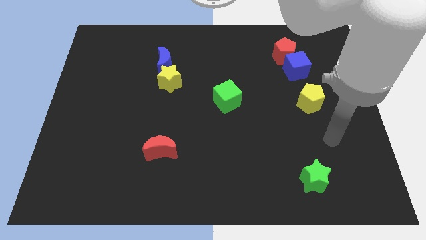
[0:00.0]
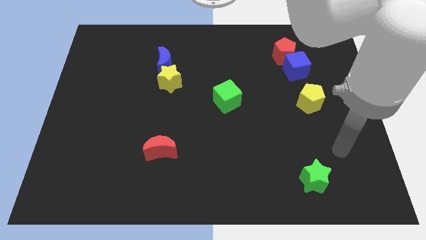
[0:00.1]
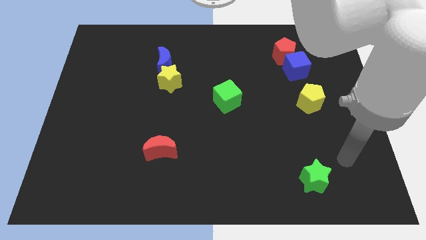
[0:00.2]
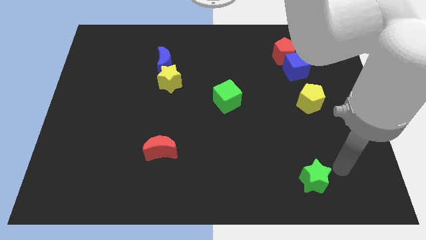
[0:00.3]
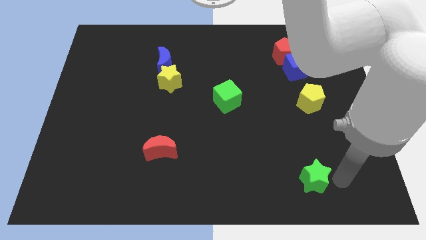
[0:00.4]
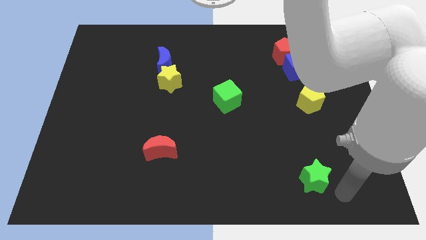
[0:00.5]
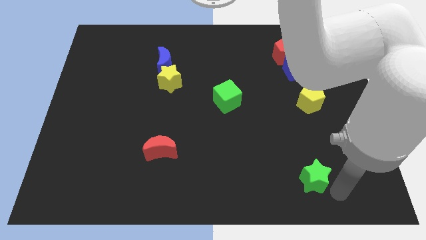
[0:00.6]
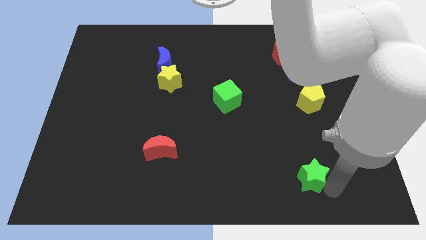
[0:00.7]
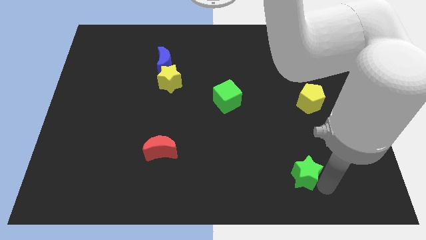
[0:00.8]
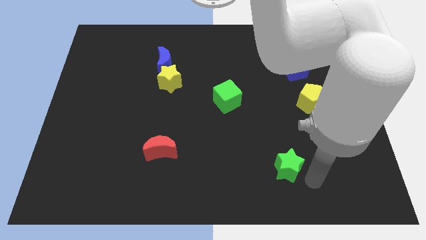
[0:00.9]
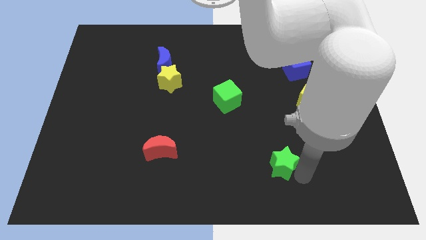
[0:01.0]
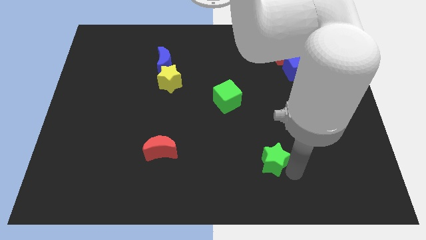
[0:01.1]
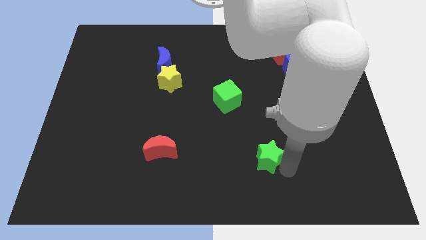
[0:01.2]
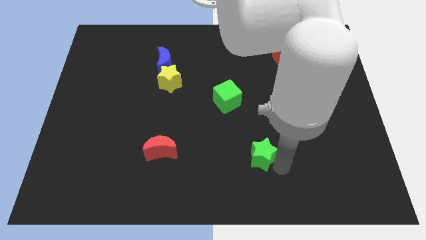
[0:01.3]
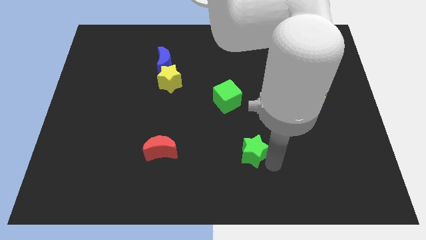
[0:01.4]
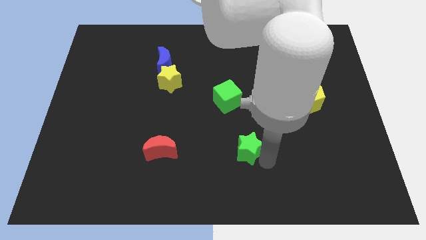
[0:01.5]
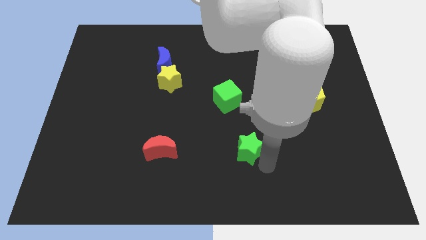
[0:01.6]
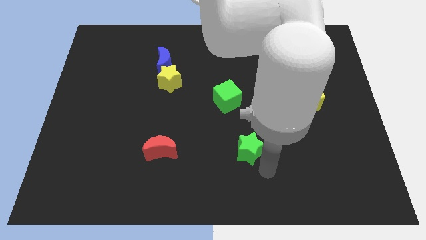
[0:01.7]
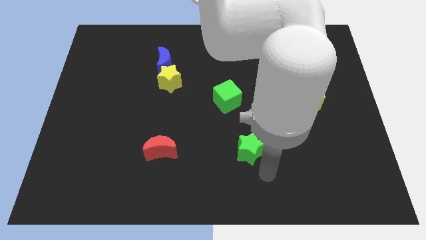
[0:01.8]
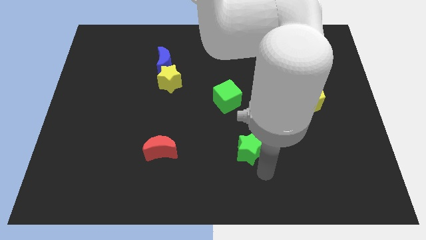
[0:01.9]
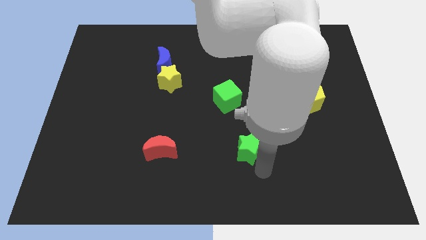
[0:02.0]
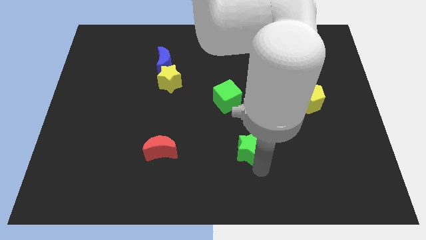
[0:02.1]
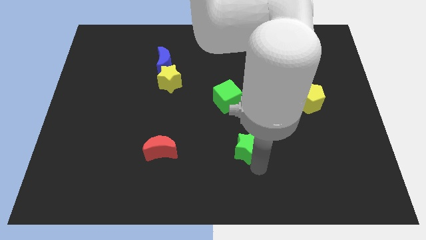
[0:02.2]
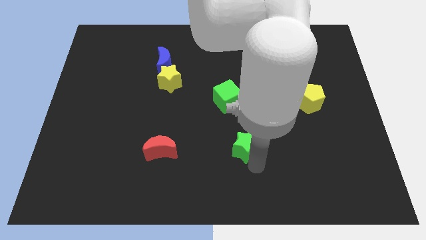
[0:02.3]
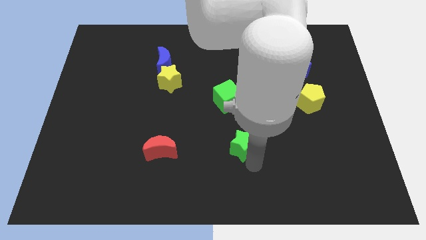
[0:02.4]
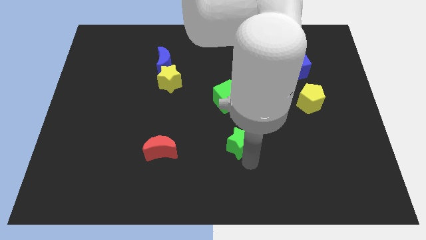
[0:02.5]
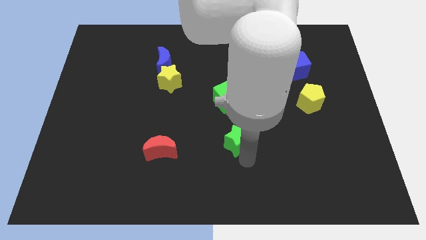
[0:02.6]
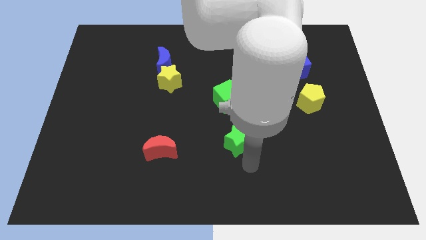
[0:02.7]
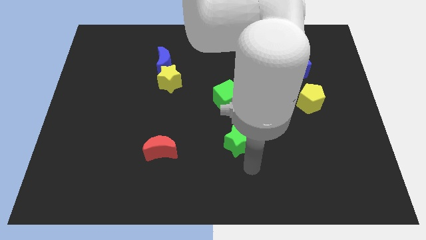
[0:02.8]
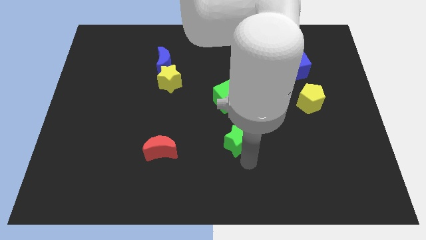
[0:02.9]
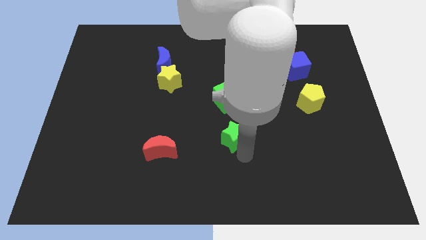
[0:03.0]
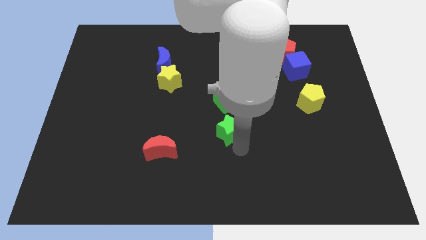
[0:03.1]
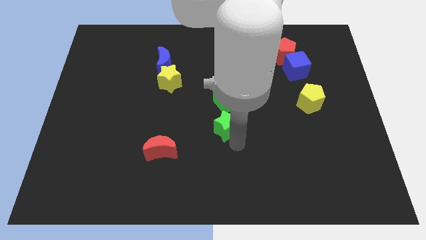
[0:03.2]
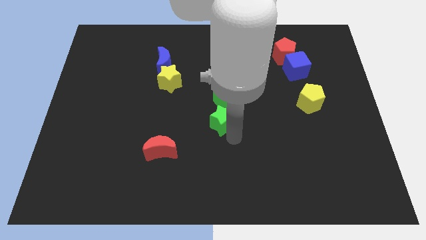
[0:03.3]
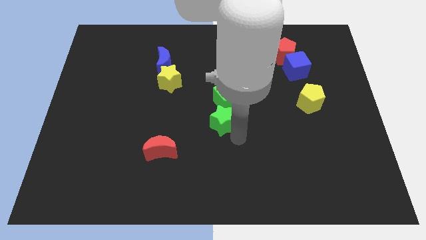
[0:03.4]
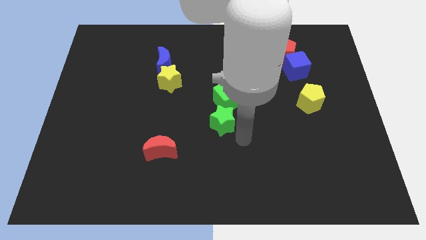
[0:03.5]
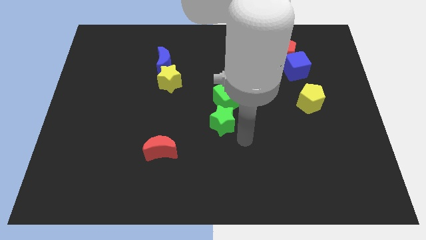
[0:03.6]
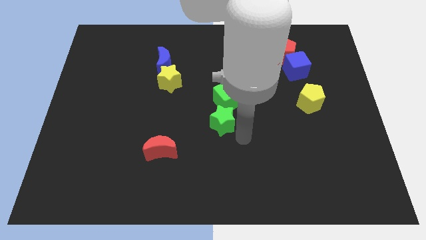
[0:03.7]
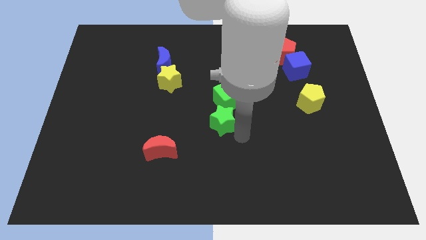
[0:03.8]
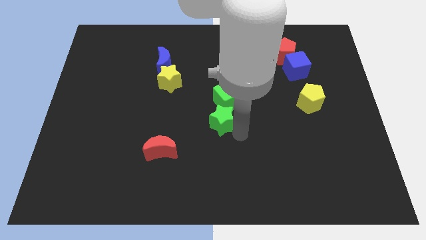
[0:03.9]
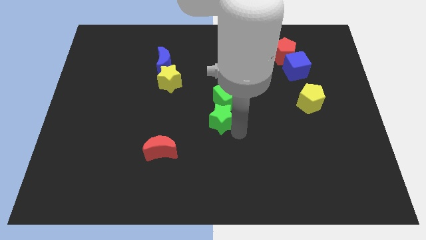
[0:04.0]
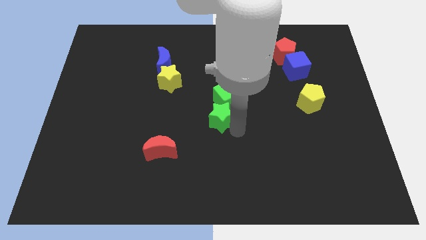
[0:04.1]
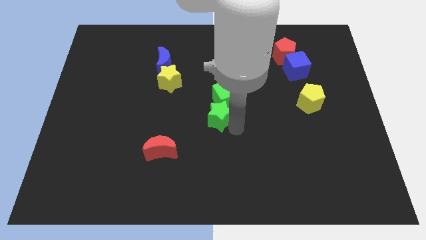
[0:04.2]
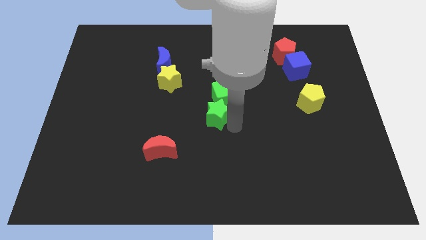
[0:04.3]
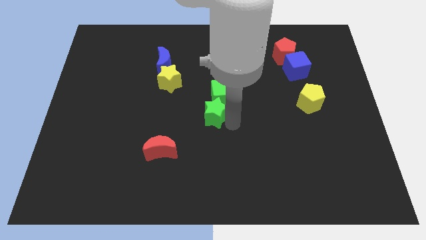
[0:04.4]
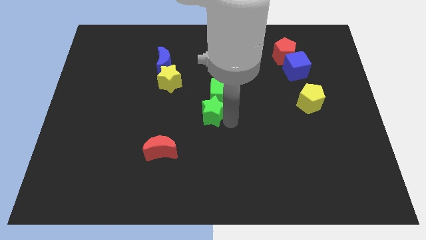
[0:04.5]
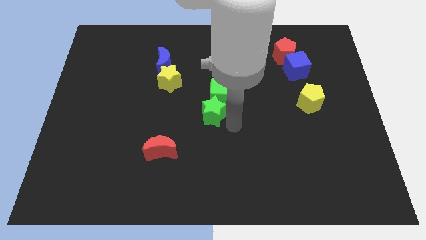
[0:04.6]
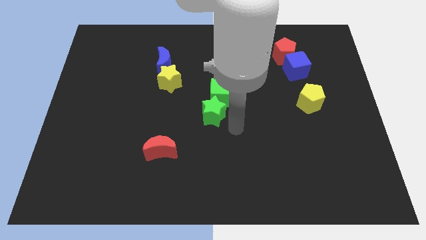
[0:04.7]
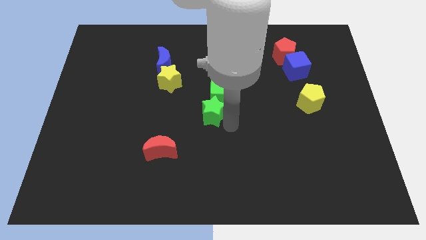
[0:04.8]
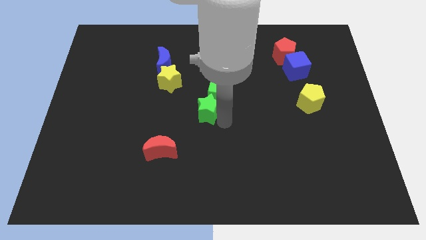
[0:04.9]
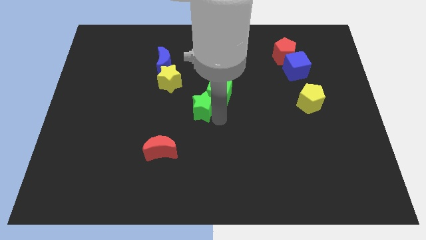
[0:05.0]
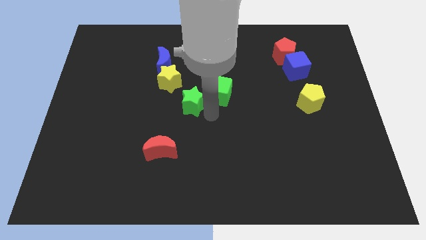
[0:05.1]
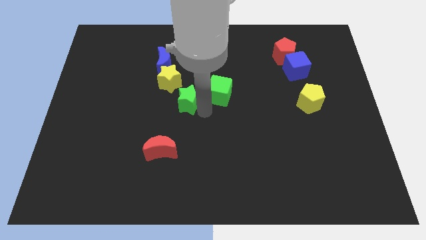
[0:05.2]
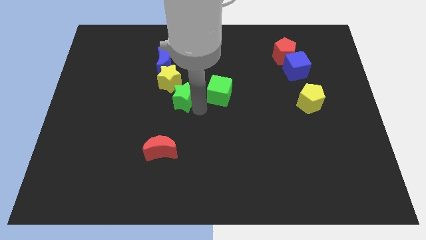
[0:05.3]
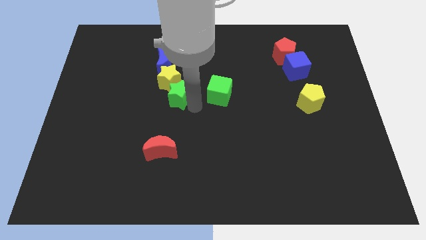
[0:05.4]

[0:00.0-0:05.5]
slide the green star close to the yellow star

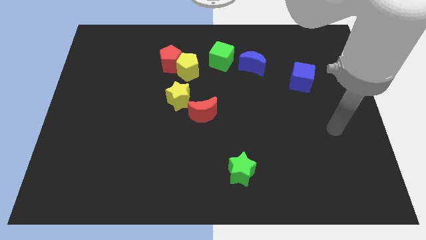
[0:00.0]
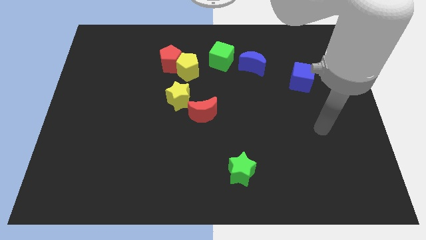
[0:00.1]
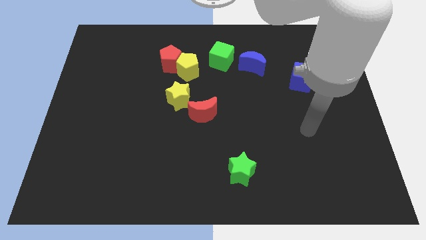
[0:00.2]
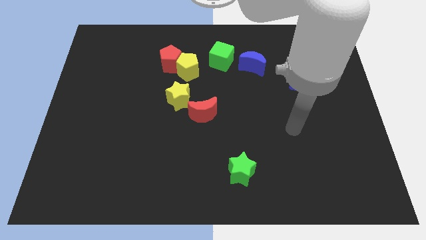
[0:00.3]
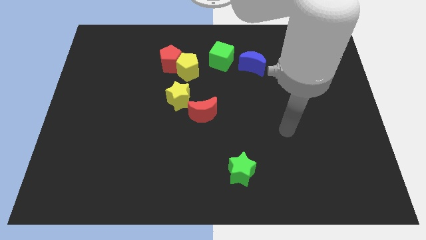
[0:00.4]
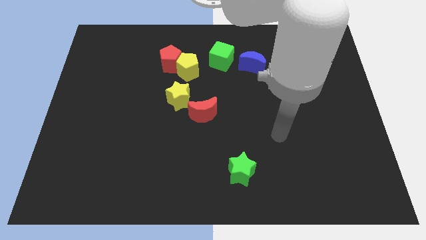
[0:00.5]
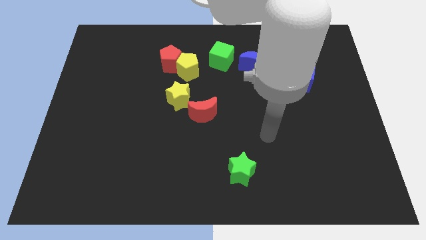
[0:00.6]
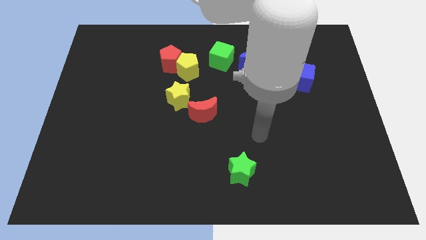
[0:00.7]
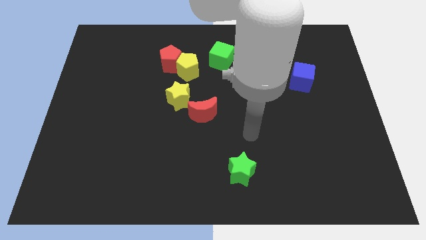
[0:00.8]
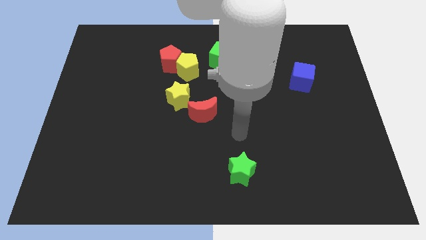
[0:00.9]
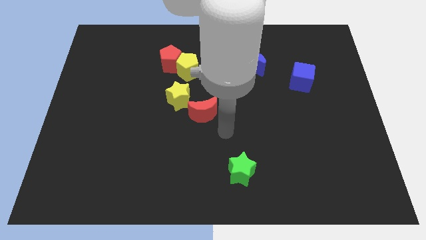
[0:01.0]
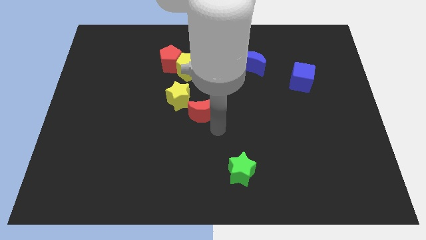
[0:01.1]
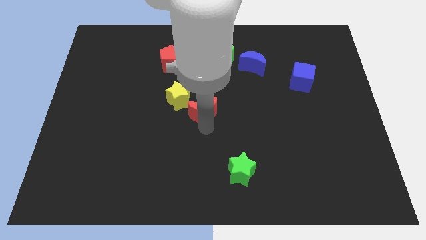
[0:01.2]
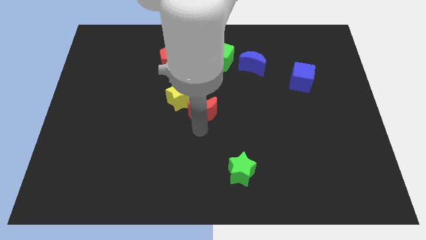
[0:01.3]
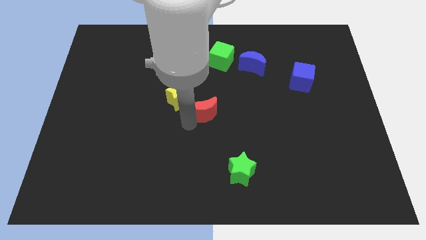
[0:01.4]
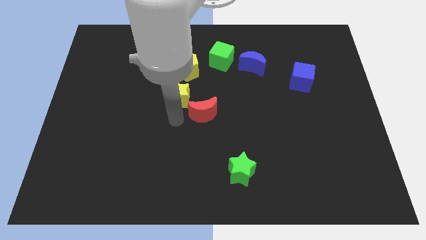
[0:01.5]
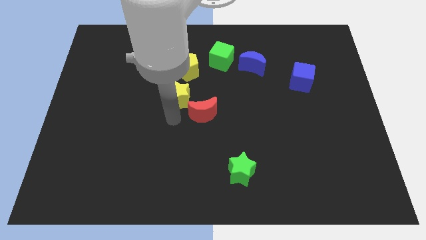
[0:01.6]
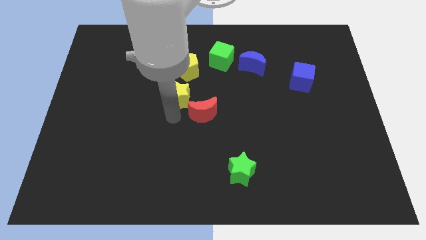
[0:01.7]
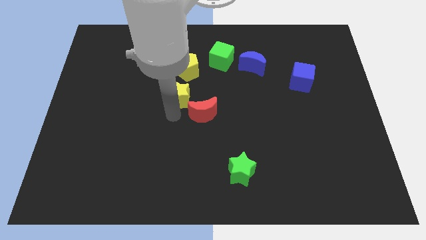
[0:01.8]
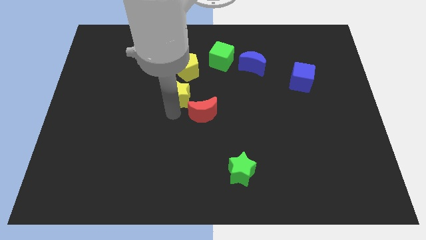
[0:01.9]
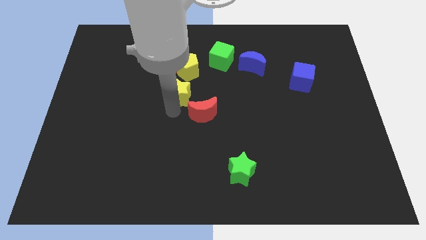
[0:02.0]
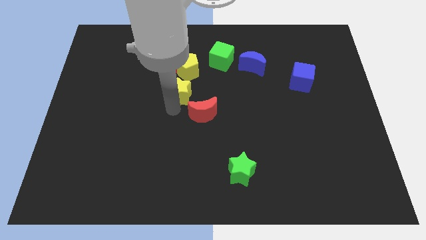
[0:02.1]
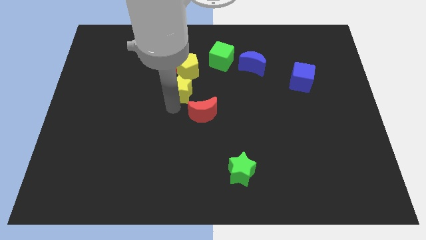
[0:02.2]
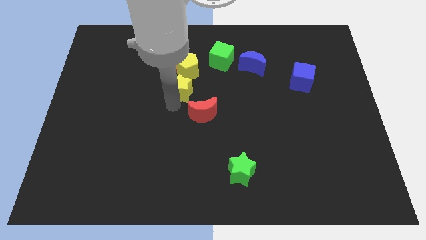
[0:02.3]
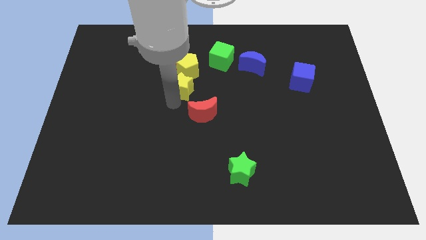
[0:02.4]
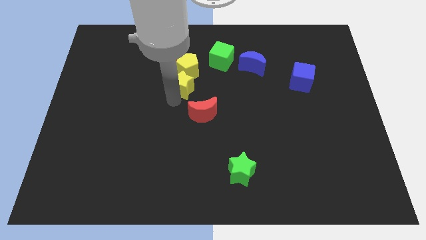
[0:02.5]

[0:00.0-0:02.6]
put the yellow star towards the yellow pentagon
